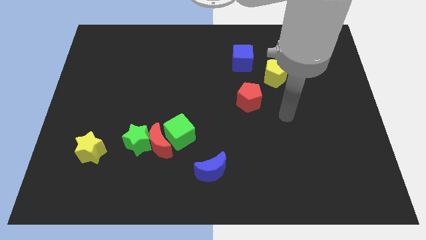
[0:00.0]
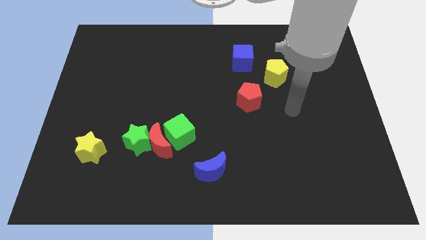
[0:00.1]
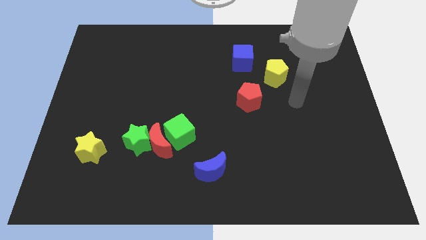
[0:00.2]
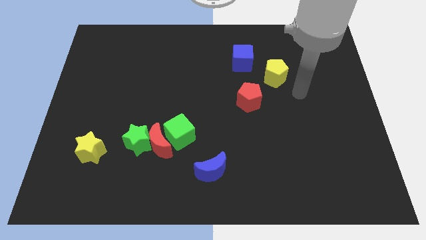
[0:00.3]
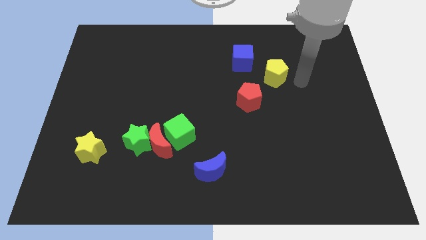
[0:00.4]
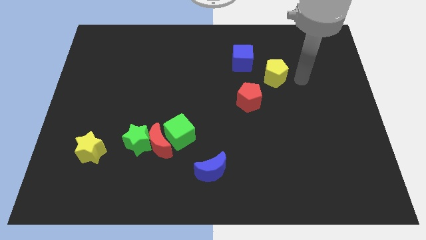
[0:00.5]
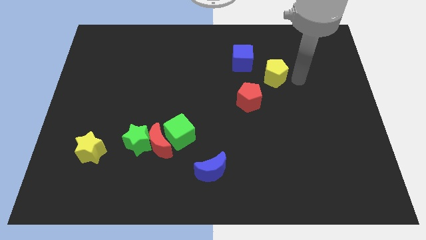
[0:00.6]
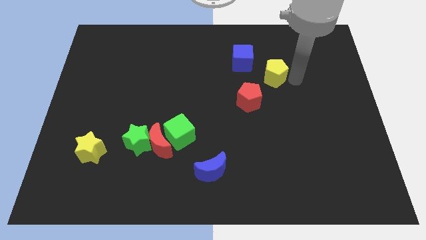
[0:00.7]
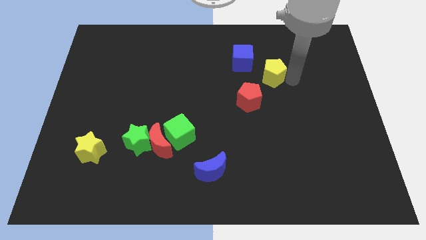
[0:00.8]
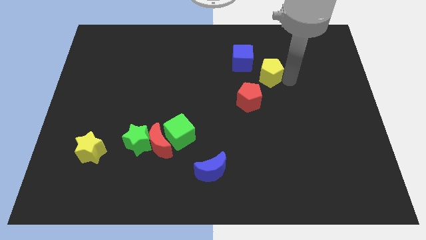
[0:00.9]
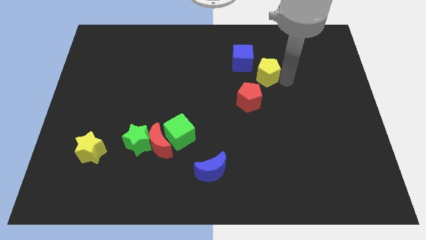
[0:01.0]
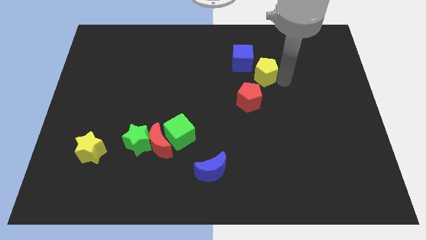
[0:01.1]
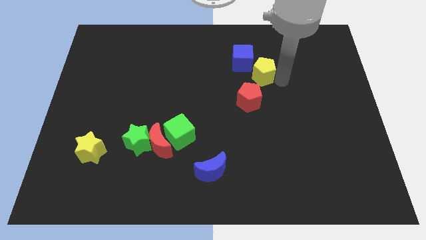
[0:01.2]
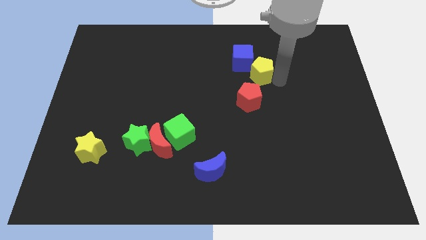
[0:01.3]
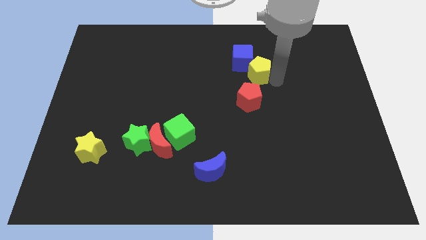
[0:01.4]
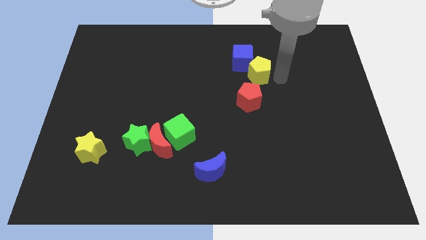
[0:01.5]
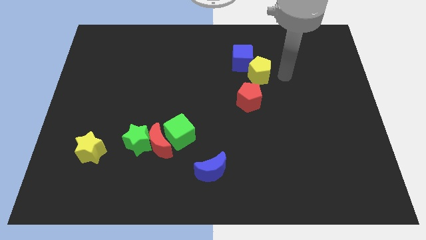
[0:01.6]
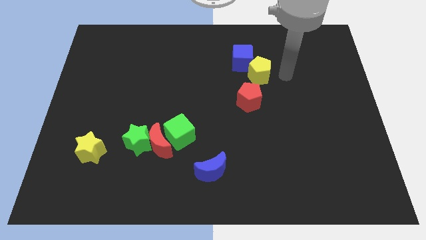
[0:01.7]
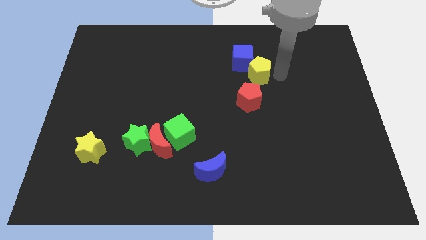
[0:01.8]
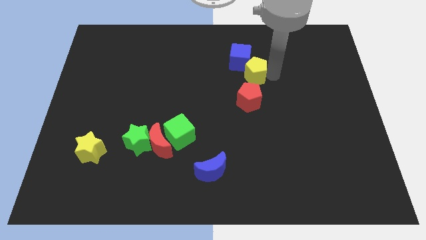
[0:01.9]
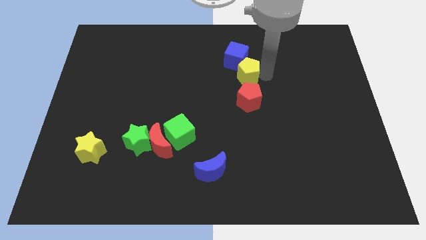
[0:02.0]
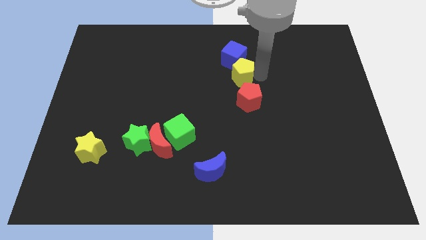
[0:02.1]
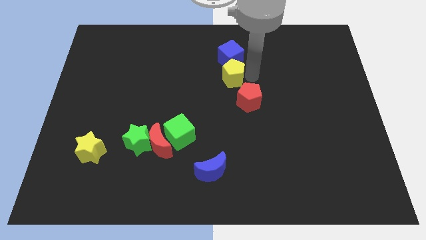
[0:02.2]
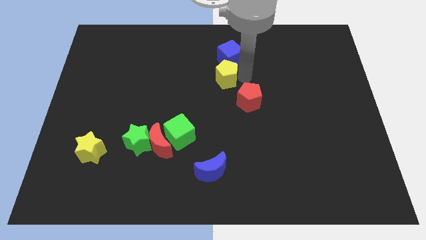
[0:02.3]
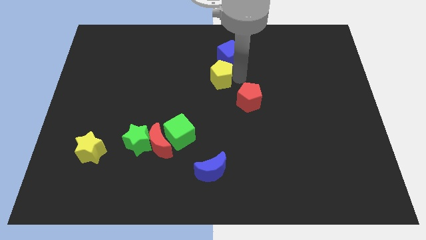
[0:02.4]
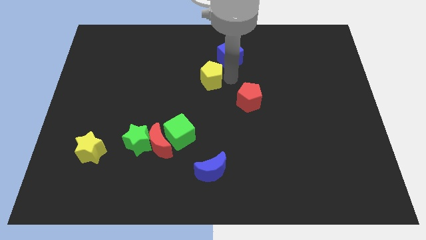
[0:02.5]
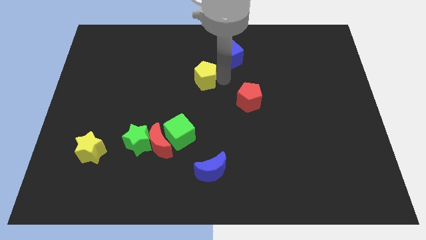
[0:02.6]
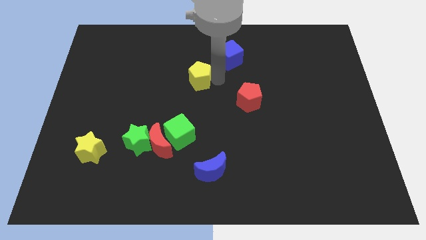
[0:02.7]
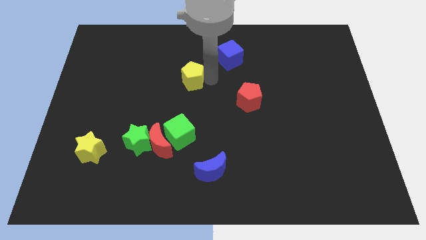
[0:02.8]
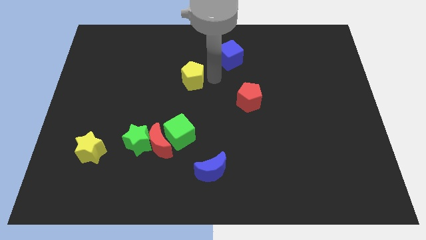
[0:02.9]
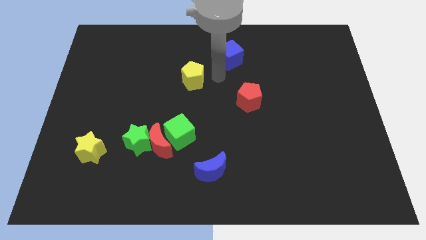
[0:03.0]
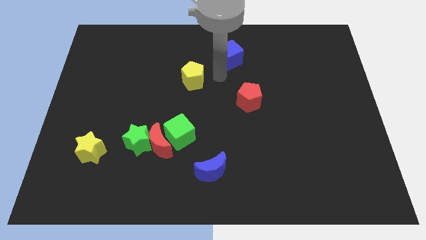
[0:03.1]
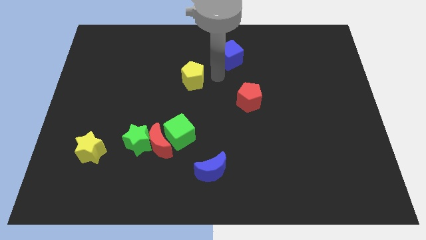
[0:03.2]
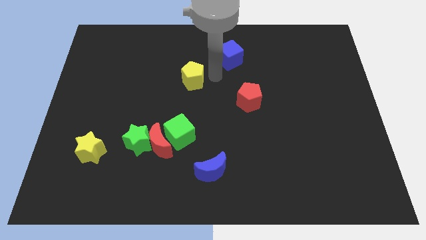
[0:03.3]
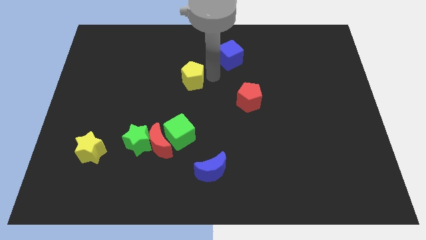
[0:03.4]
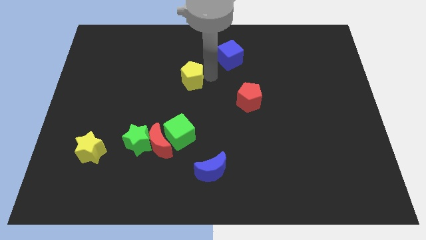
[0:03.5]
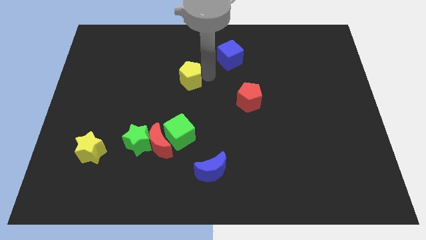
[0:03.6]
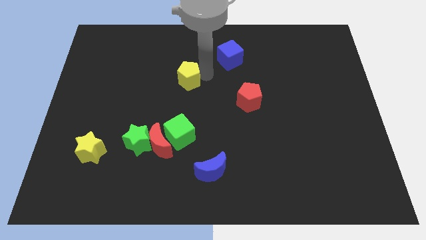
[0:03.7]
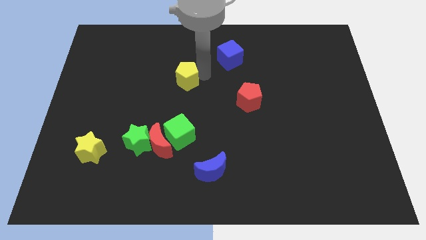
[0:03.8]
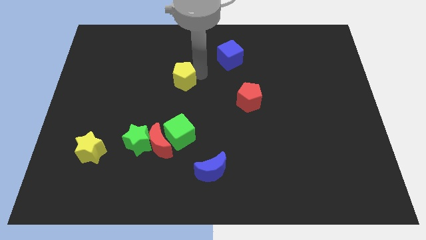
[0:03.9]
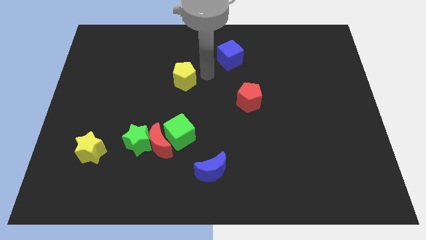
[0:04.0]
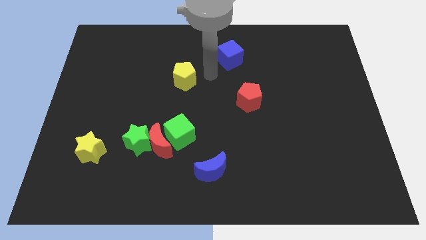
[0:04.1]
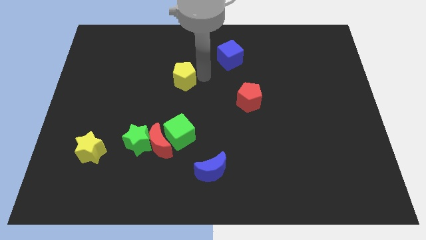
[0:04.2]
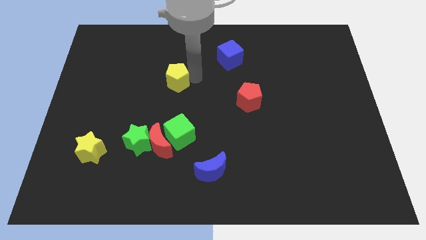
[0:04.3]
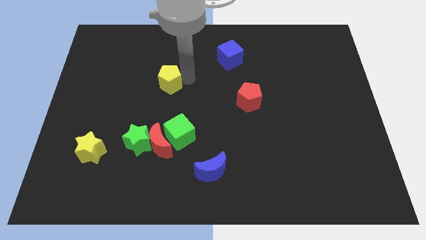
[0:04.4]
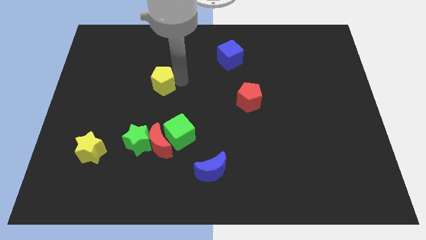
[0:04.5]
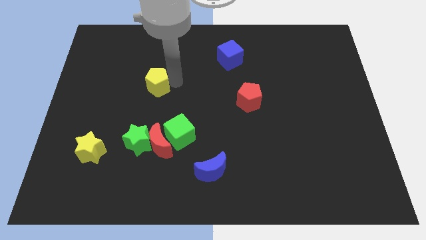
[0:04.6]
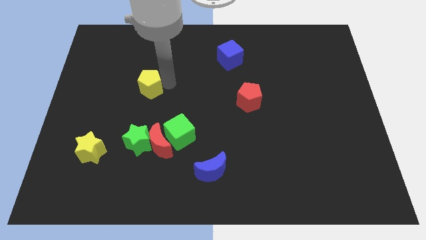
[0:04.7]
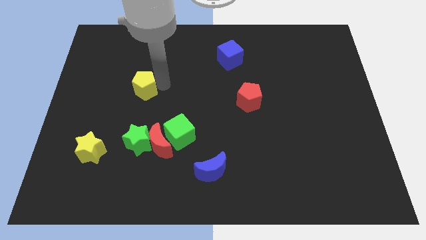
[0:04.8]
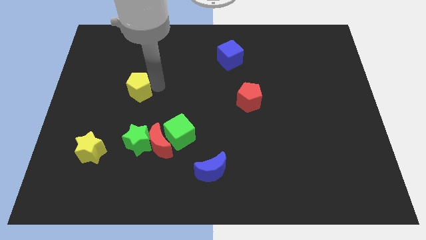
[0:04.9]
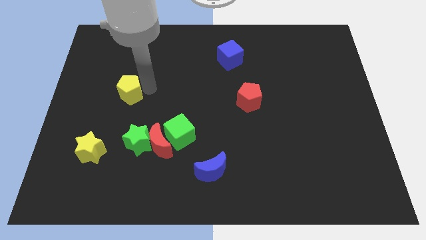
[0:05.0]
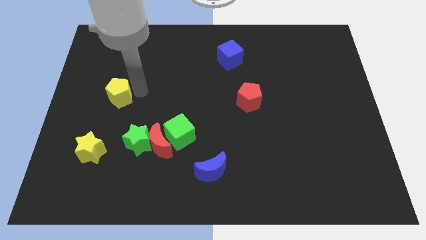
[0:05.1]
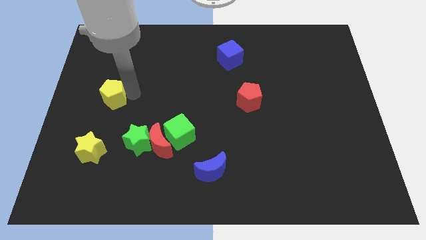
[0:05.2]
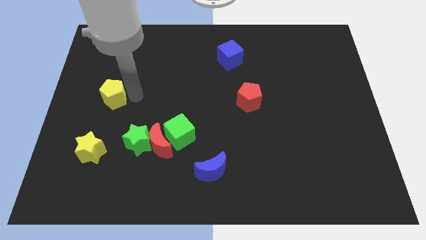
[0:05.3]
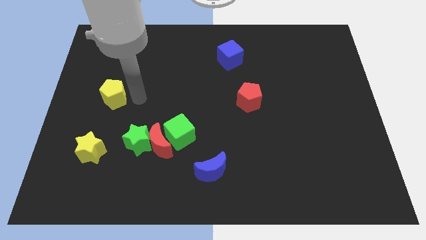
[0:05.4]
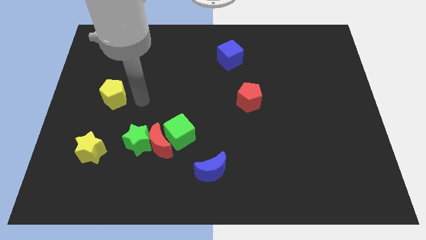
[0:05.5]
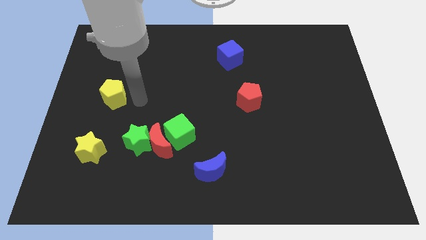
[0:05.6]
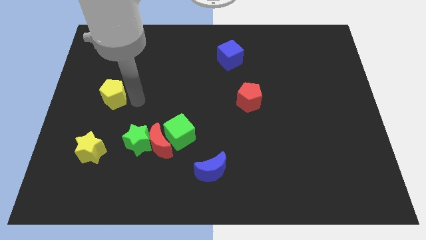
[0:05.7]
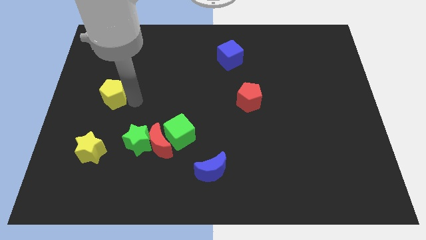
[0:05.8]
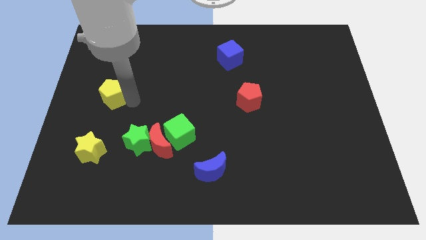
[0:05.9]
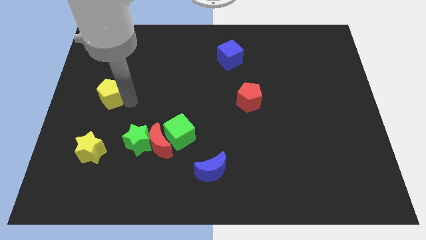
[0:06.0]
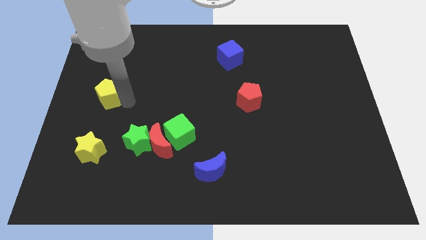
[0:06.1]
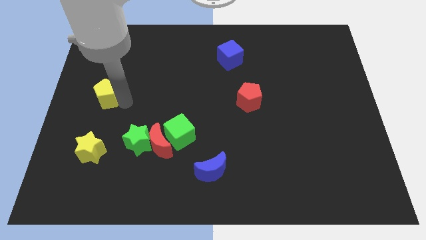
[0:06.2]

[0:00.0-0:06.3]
put the yellow pentagon to the left side of the board

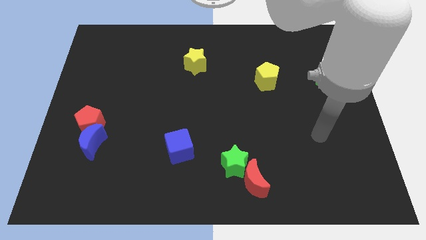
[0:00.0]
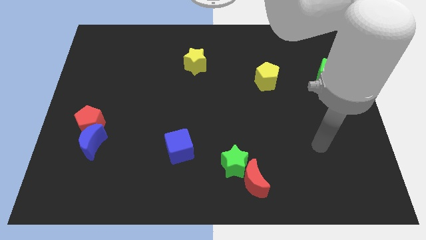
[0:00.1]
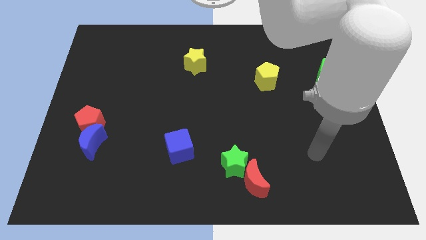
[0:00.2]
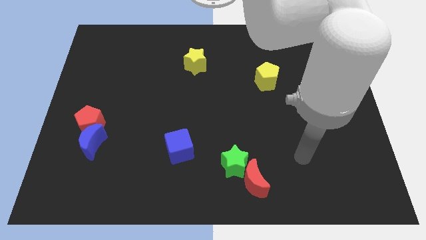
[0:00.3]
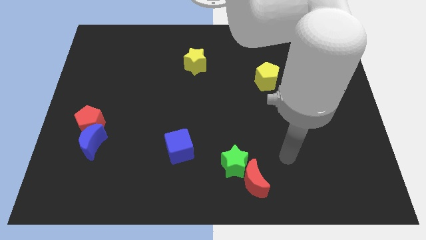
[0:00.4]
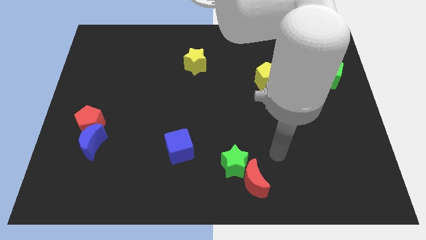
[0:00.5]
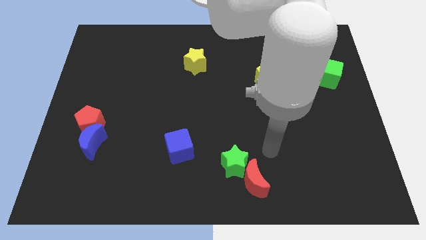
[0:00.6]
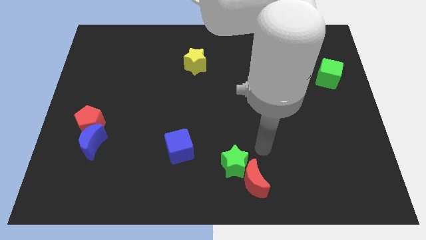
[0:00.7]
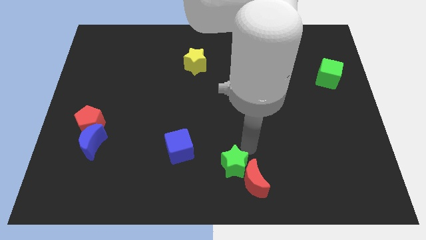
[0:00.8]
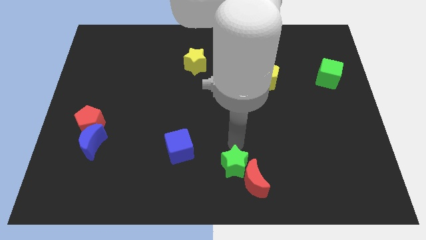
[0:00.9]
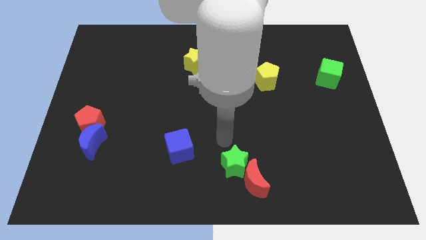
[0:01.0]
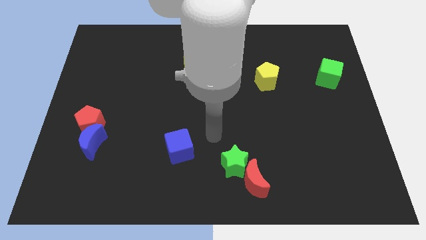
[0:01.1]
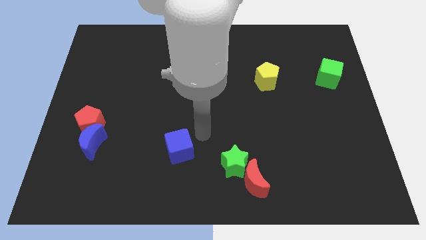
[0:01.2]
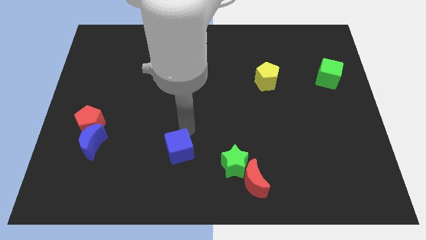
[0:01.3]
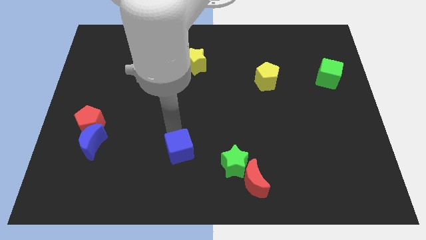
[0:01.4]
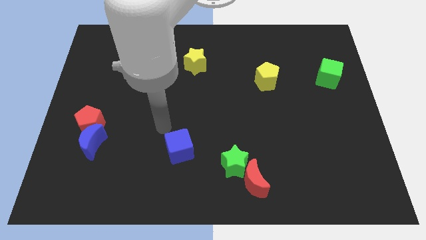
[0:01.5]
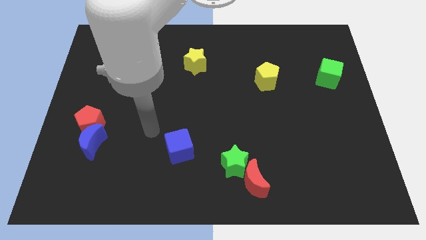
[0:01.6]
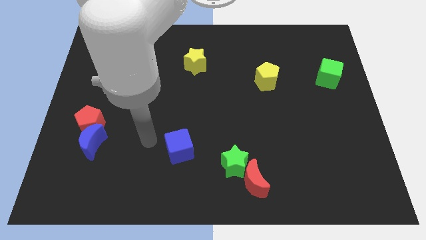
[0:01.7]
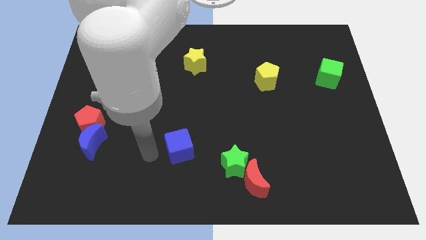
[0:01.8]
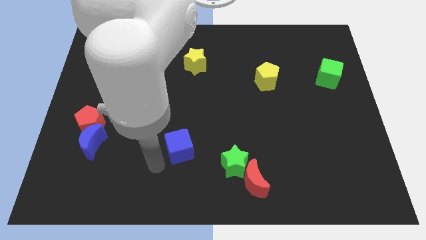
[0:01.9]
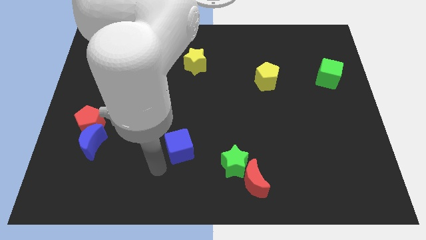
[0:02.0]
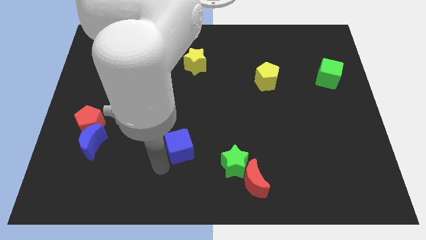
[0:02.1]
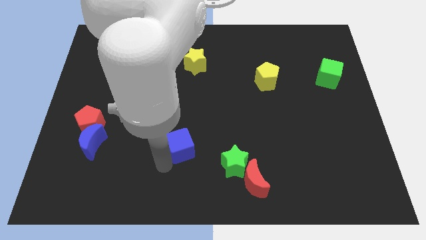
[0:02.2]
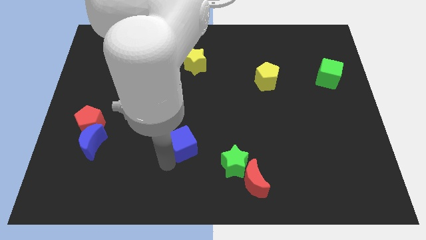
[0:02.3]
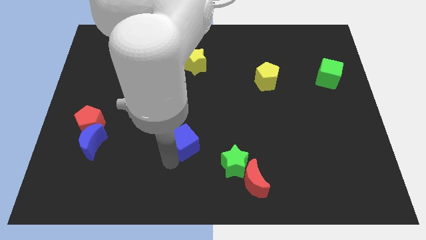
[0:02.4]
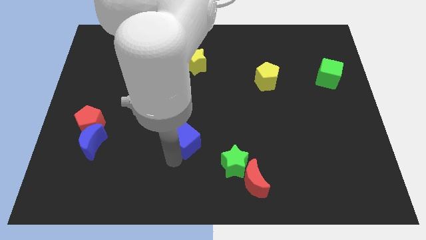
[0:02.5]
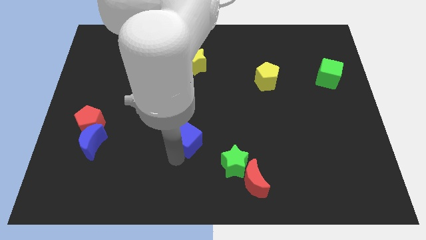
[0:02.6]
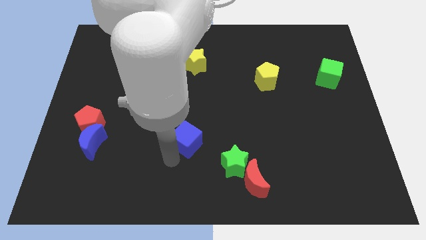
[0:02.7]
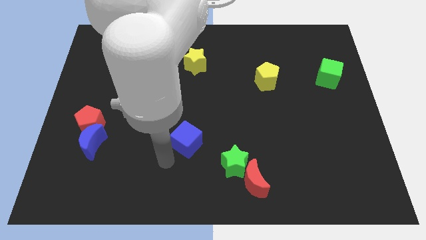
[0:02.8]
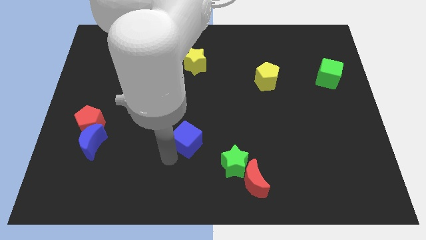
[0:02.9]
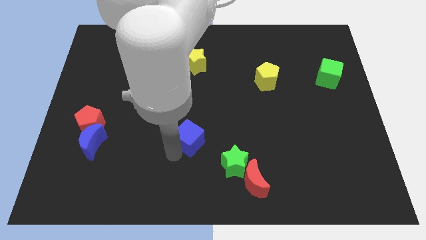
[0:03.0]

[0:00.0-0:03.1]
put the blue cube to the center
